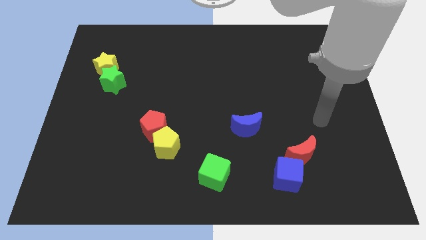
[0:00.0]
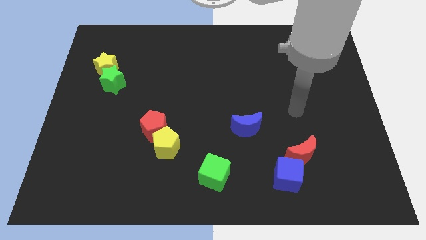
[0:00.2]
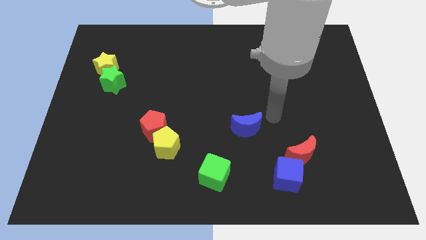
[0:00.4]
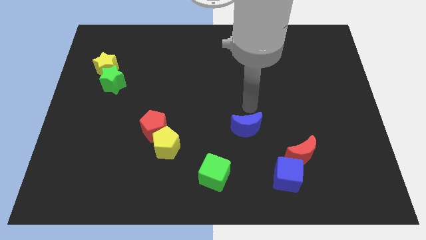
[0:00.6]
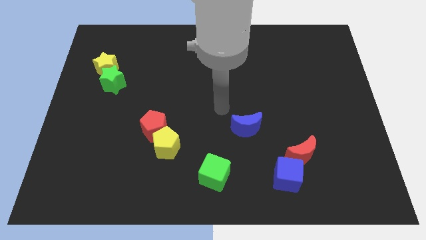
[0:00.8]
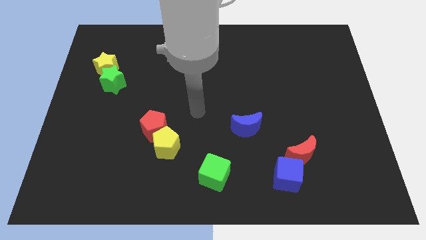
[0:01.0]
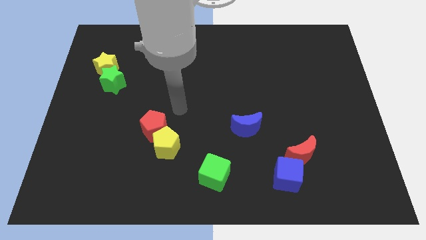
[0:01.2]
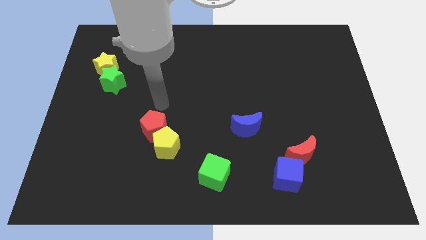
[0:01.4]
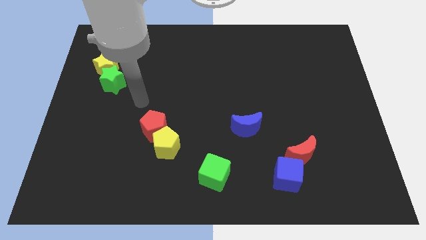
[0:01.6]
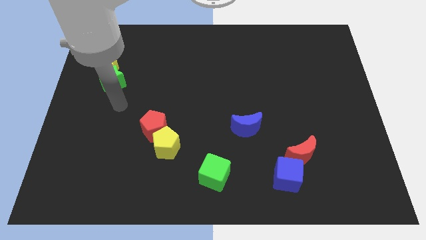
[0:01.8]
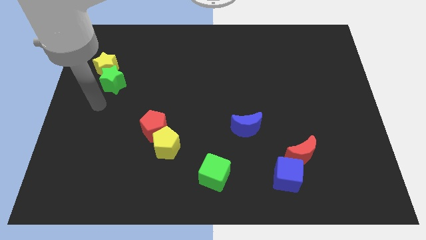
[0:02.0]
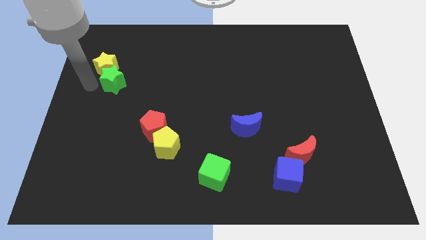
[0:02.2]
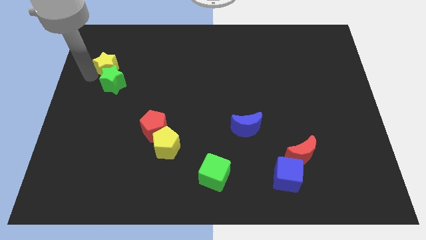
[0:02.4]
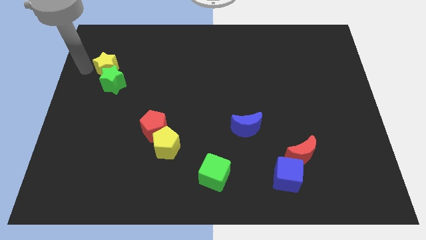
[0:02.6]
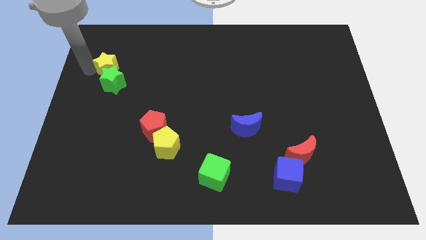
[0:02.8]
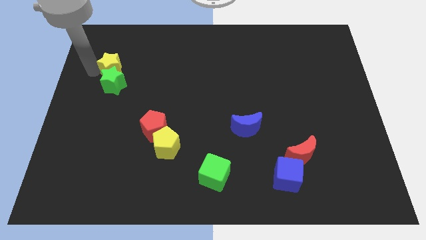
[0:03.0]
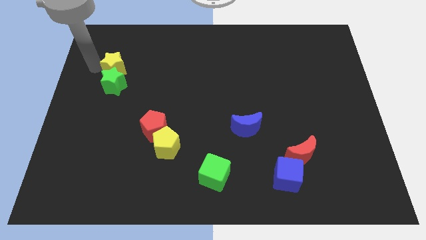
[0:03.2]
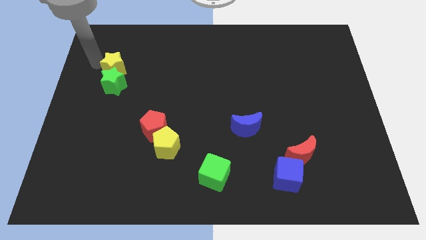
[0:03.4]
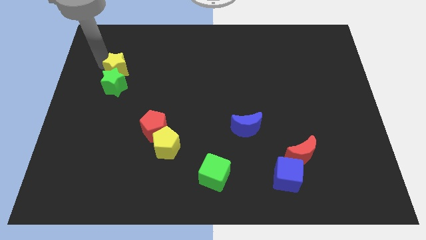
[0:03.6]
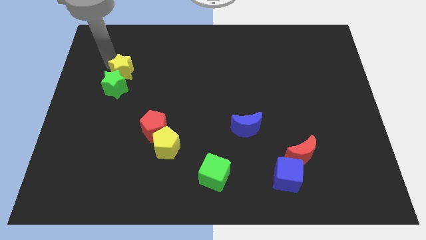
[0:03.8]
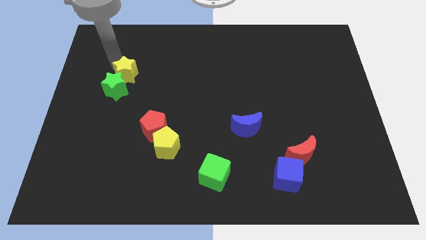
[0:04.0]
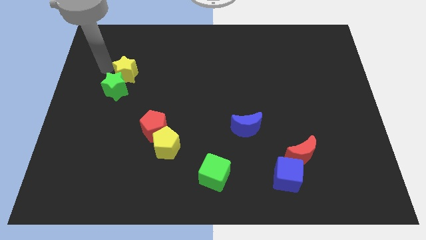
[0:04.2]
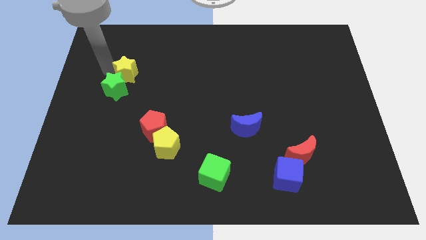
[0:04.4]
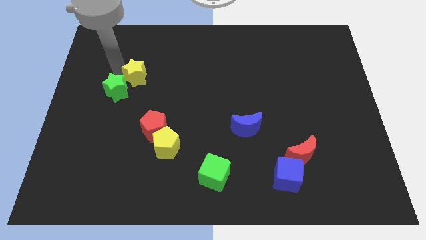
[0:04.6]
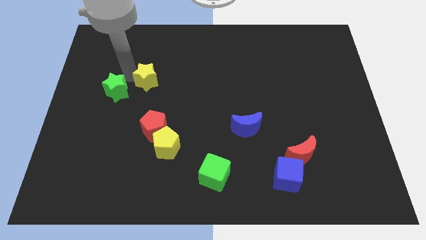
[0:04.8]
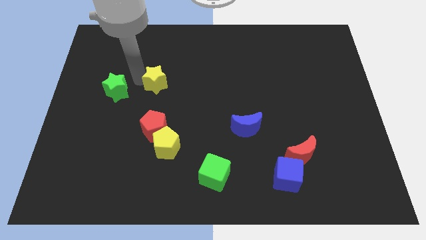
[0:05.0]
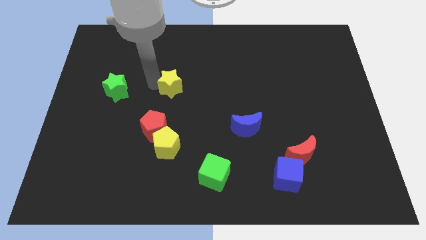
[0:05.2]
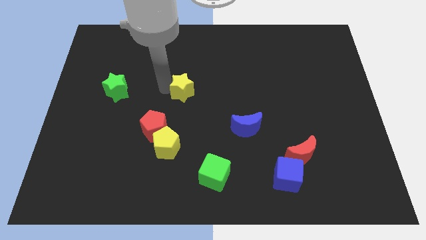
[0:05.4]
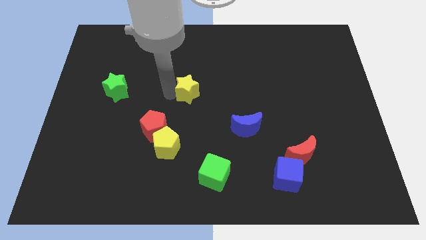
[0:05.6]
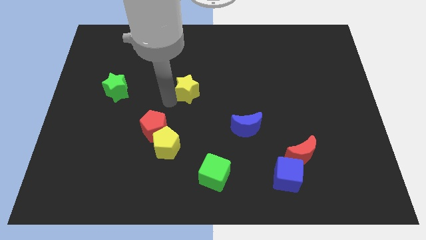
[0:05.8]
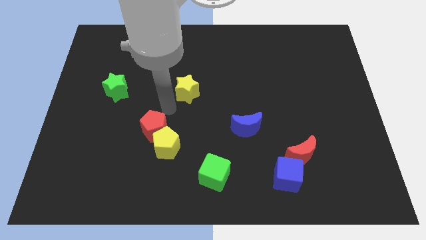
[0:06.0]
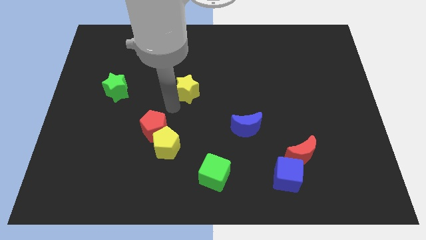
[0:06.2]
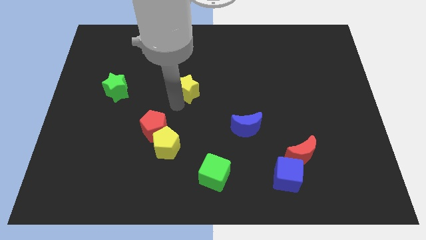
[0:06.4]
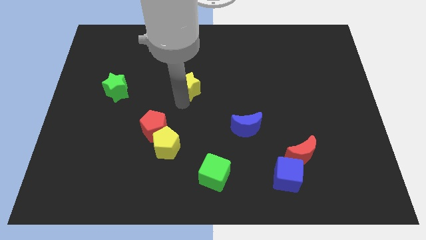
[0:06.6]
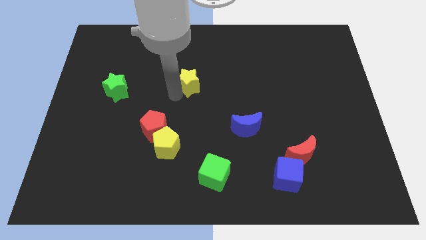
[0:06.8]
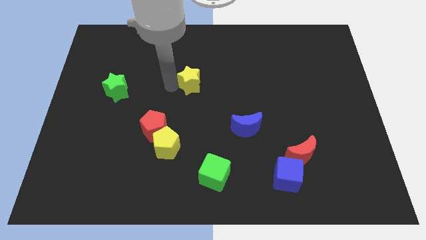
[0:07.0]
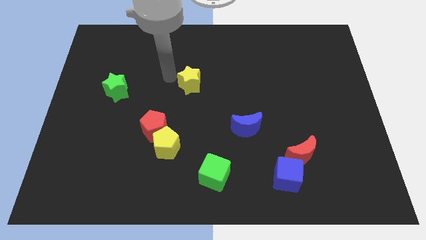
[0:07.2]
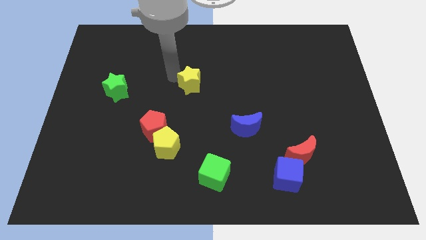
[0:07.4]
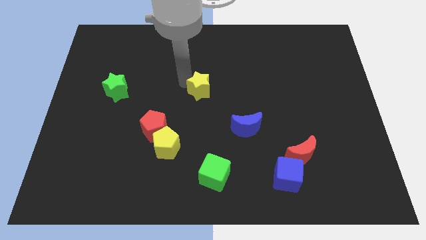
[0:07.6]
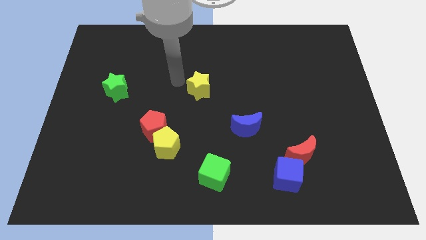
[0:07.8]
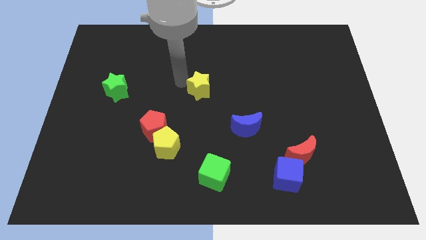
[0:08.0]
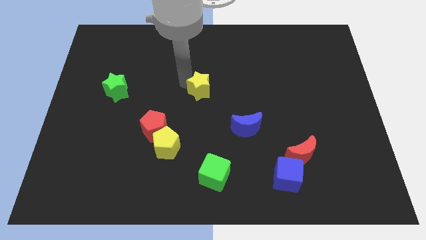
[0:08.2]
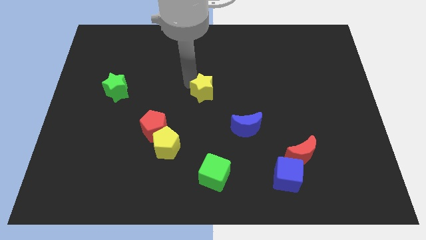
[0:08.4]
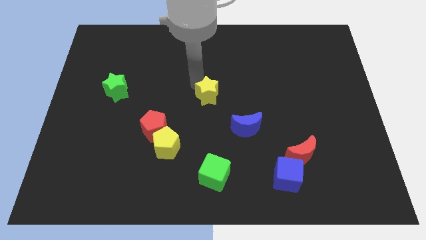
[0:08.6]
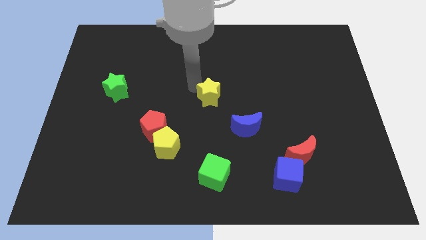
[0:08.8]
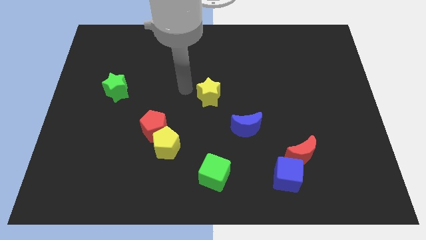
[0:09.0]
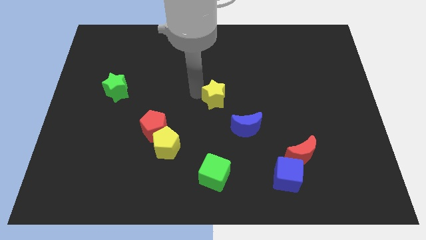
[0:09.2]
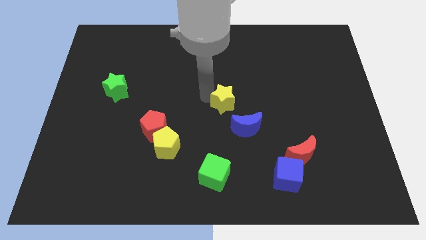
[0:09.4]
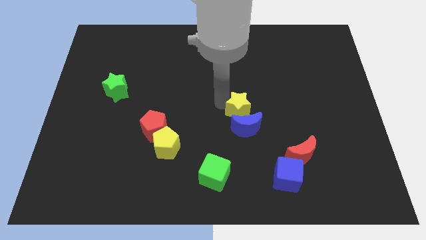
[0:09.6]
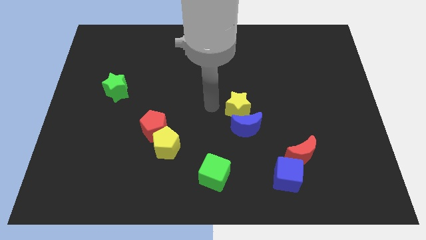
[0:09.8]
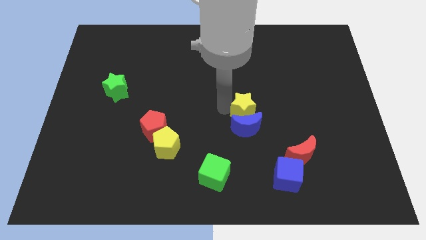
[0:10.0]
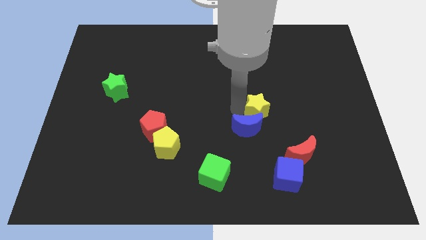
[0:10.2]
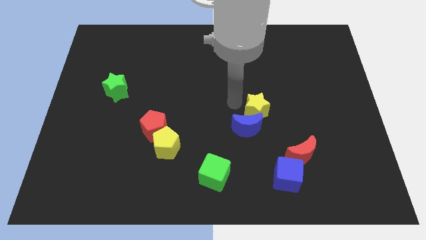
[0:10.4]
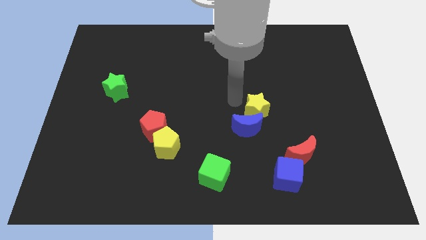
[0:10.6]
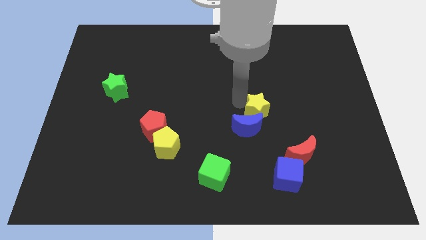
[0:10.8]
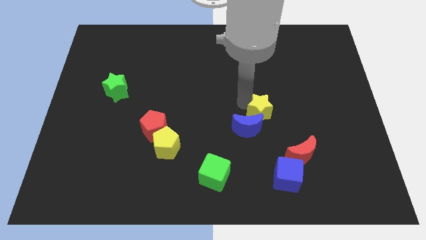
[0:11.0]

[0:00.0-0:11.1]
slide the yellow star just right of the blue moon

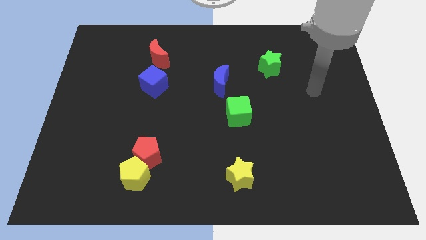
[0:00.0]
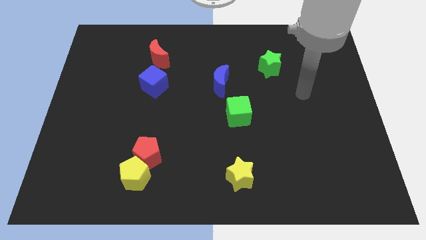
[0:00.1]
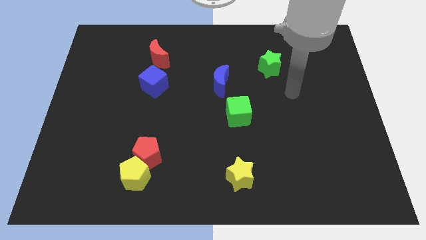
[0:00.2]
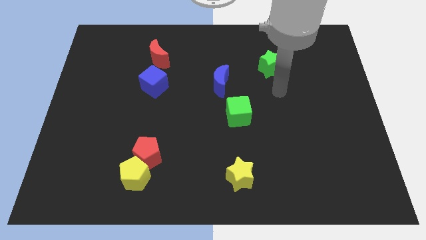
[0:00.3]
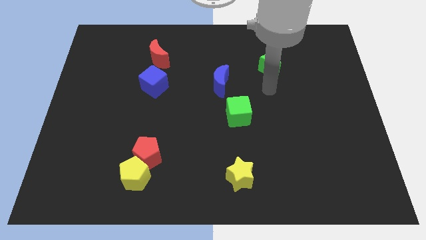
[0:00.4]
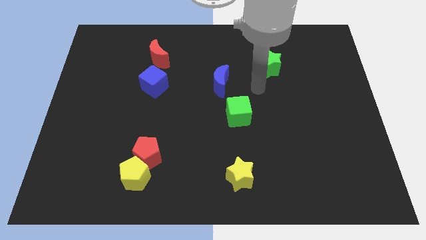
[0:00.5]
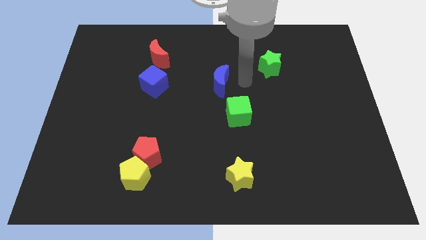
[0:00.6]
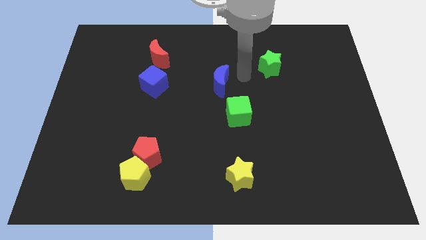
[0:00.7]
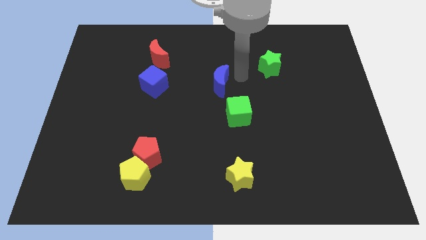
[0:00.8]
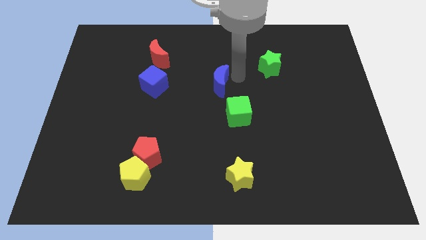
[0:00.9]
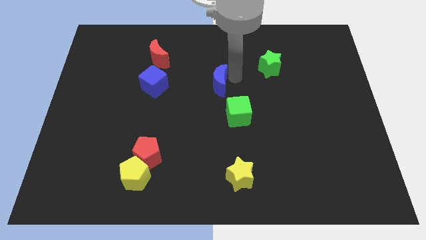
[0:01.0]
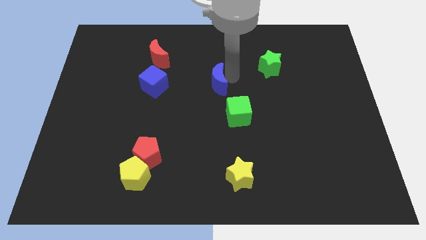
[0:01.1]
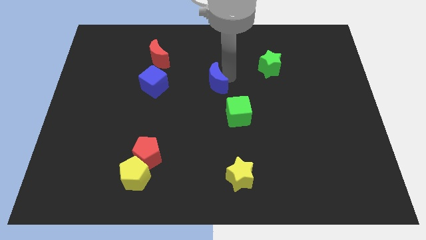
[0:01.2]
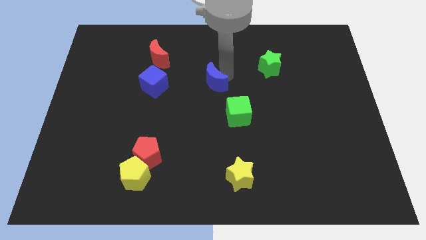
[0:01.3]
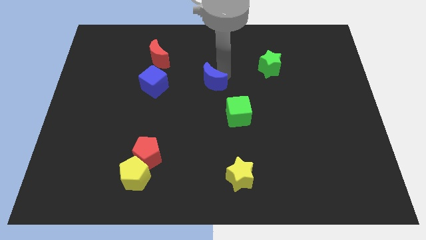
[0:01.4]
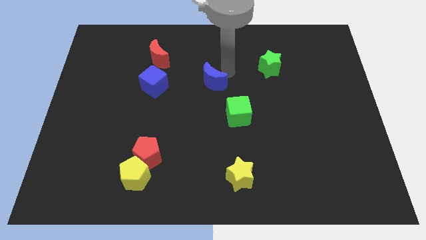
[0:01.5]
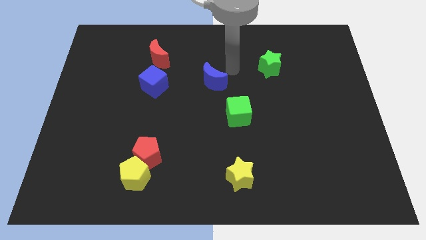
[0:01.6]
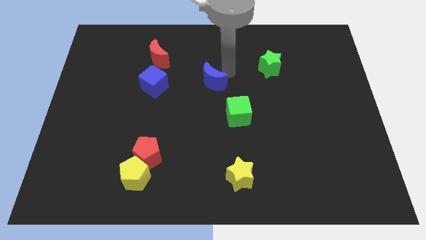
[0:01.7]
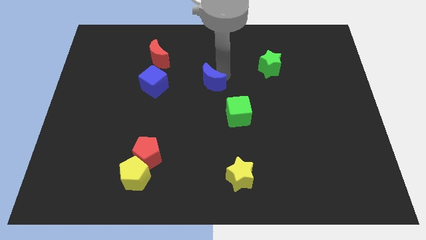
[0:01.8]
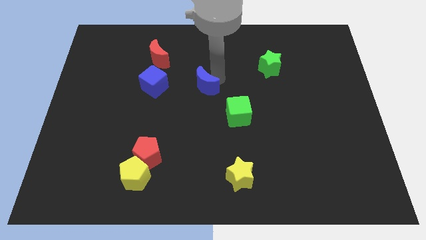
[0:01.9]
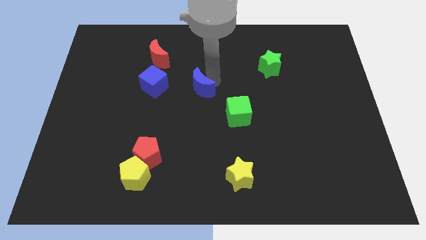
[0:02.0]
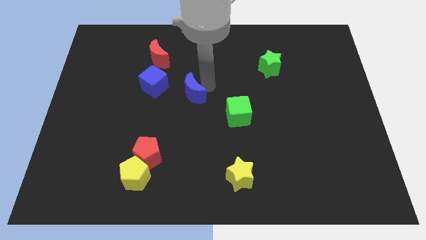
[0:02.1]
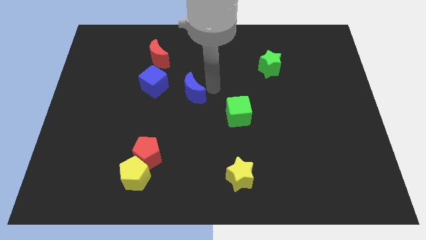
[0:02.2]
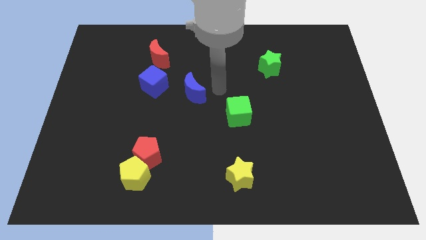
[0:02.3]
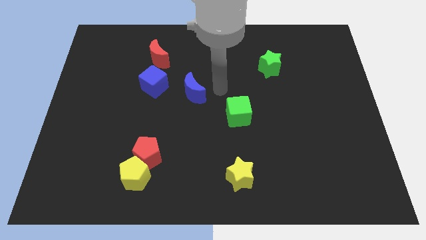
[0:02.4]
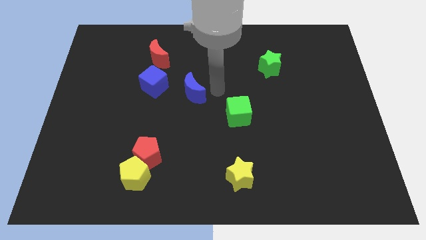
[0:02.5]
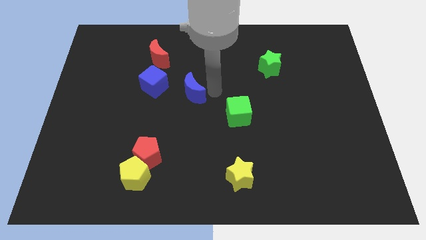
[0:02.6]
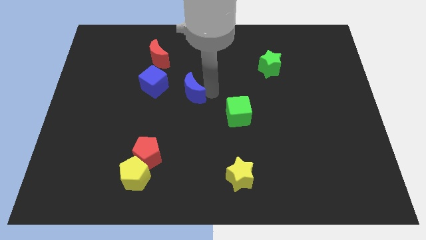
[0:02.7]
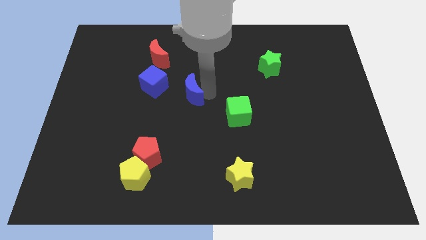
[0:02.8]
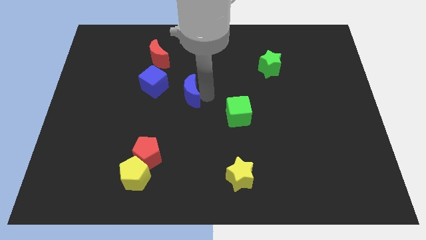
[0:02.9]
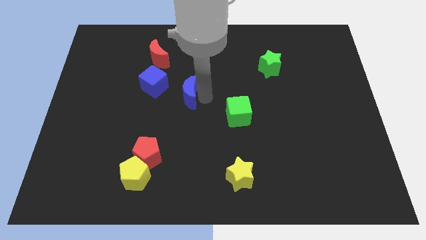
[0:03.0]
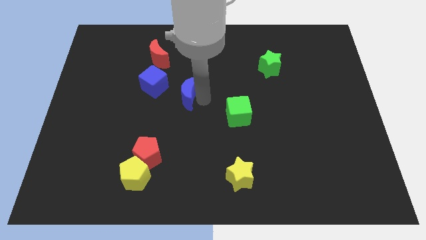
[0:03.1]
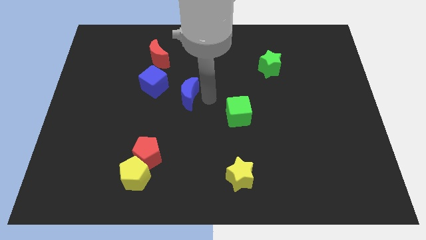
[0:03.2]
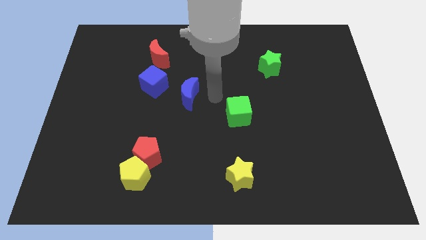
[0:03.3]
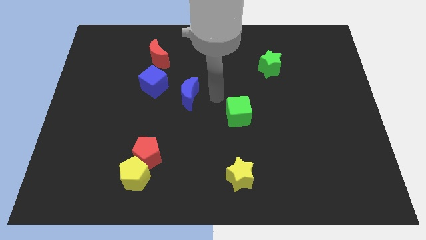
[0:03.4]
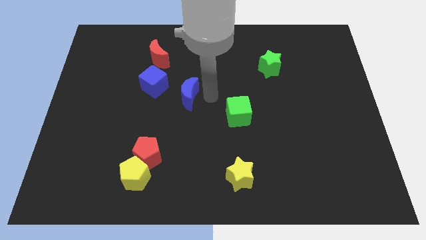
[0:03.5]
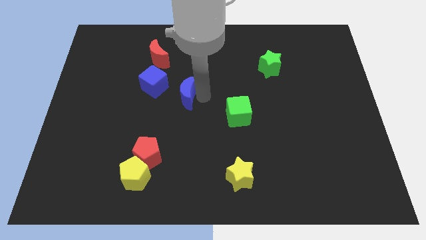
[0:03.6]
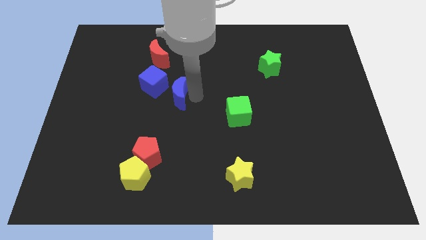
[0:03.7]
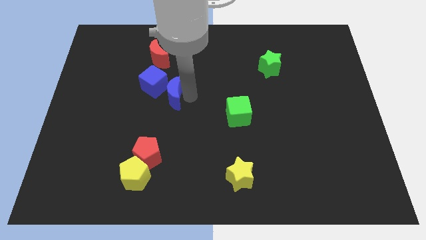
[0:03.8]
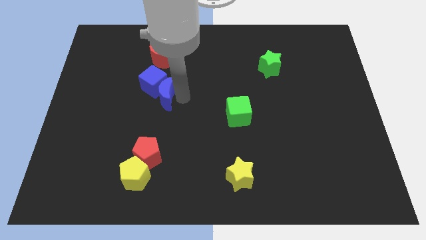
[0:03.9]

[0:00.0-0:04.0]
move the blue moon below the red moon
